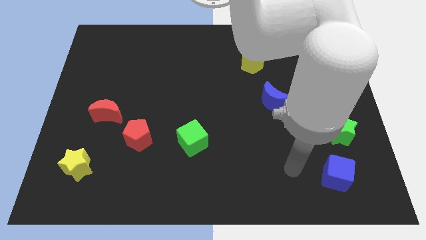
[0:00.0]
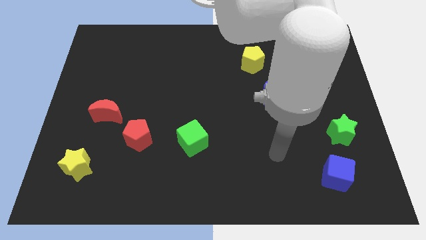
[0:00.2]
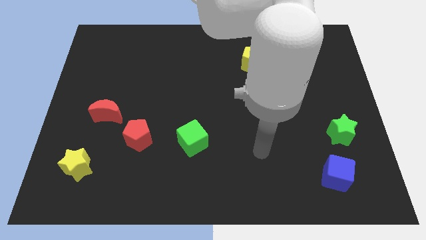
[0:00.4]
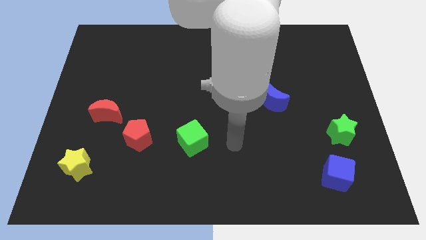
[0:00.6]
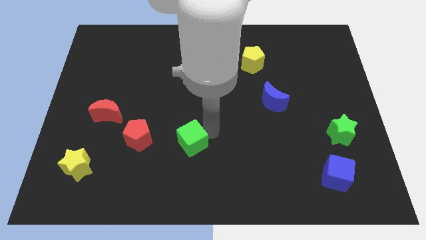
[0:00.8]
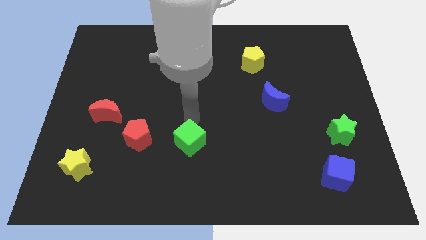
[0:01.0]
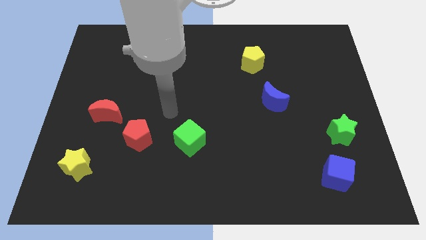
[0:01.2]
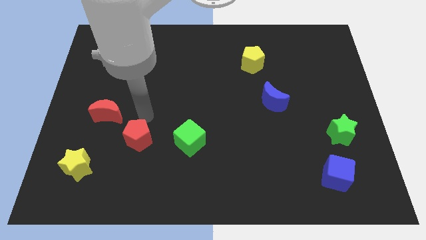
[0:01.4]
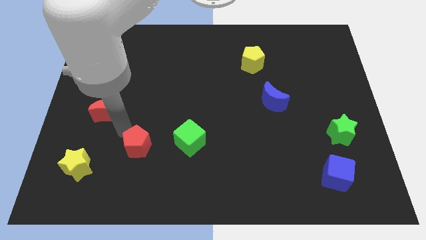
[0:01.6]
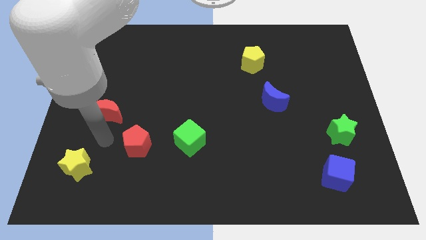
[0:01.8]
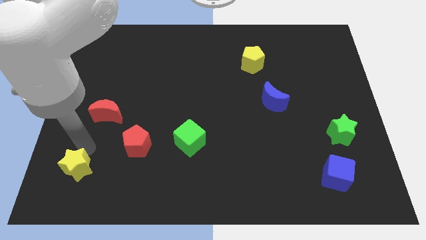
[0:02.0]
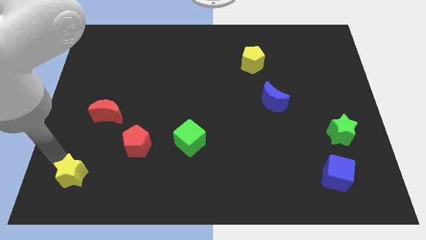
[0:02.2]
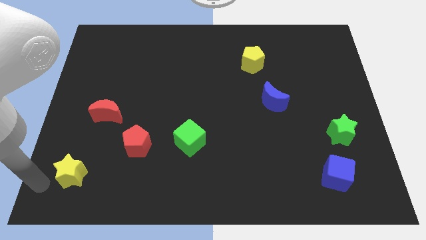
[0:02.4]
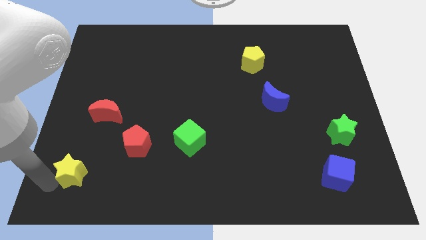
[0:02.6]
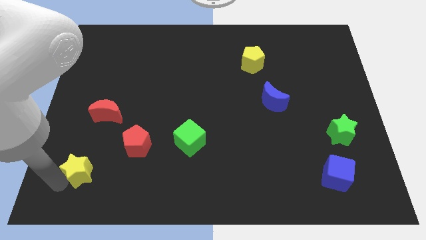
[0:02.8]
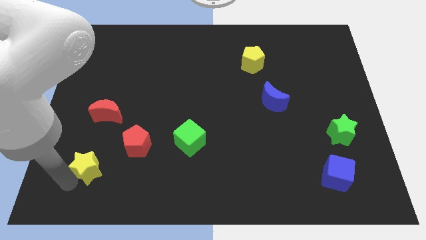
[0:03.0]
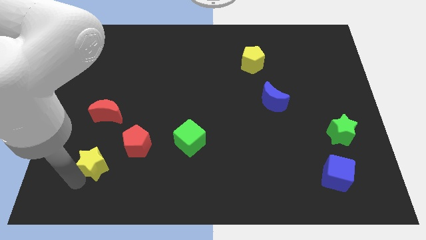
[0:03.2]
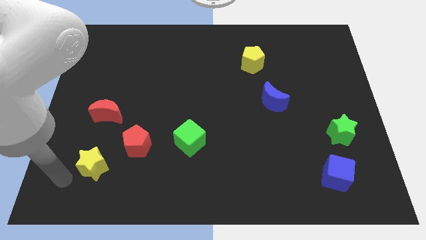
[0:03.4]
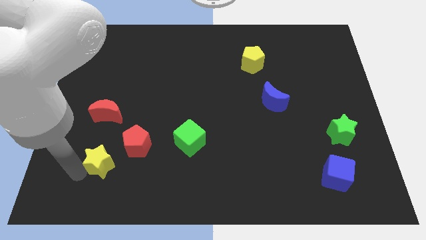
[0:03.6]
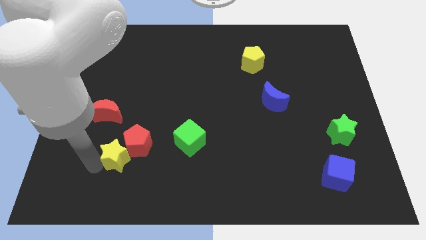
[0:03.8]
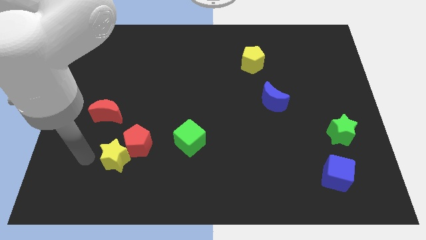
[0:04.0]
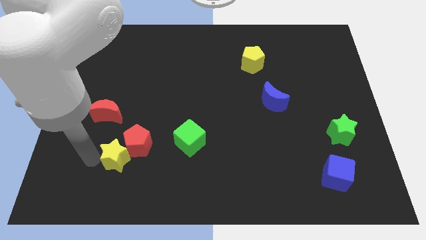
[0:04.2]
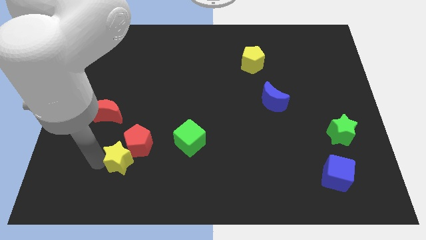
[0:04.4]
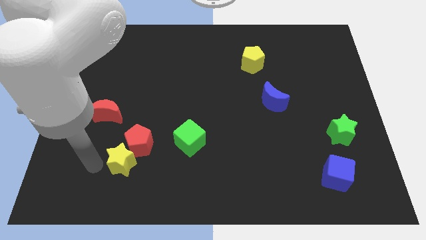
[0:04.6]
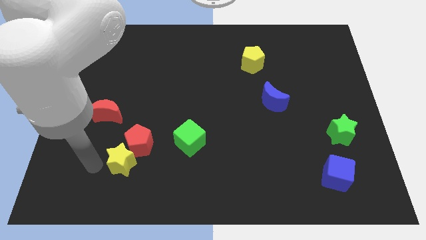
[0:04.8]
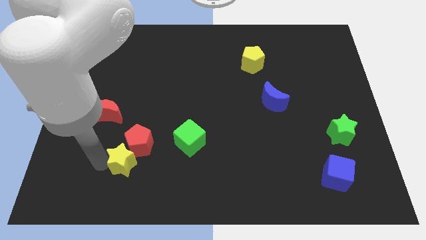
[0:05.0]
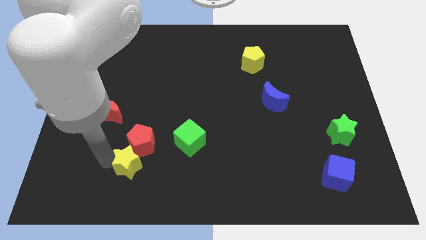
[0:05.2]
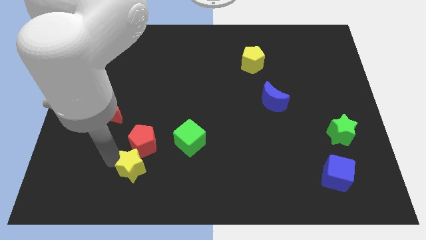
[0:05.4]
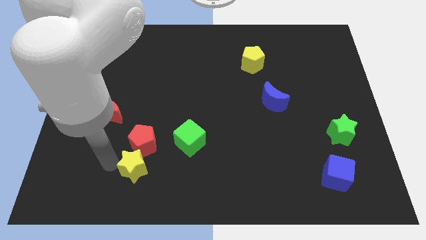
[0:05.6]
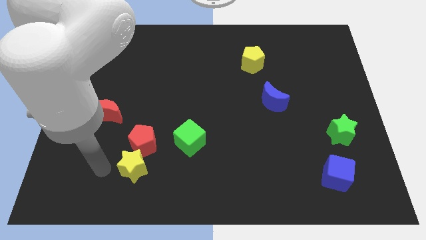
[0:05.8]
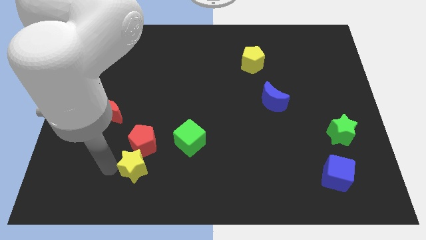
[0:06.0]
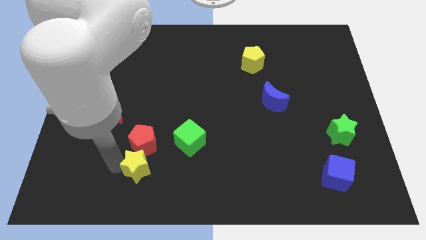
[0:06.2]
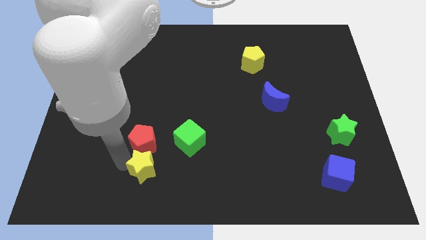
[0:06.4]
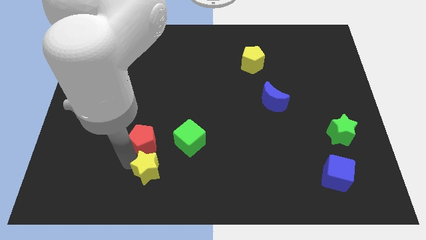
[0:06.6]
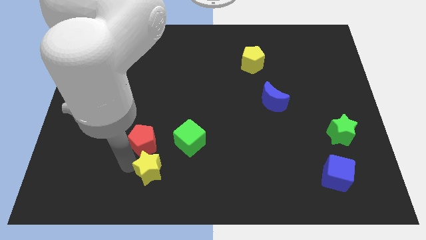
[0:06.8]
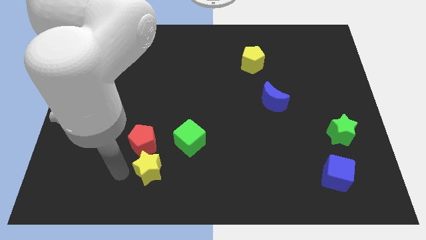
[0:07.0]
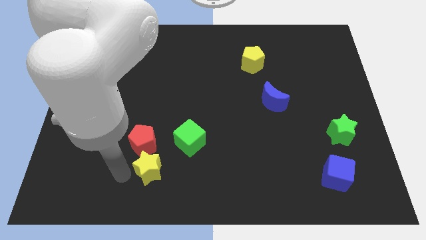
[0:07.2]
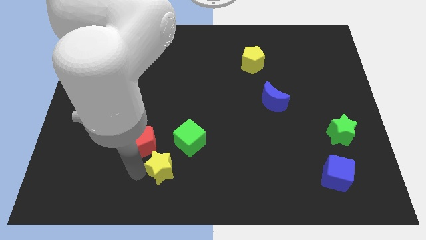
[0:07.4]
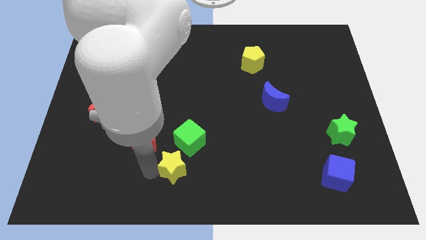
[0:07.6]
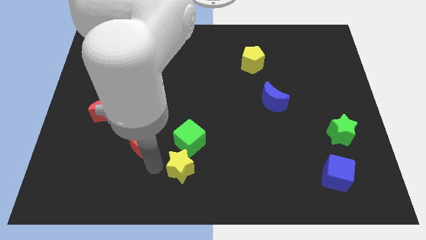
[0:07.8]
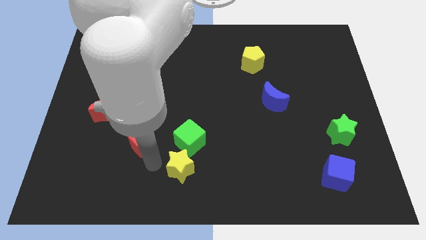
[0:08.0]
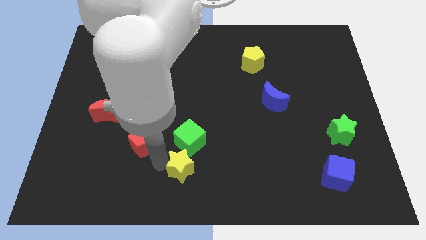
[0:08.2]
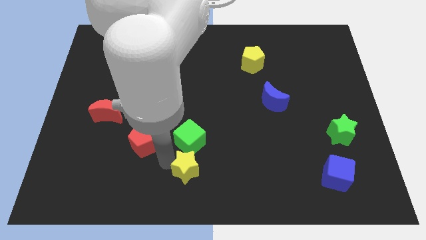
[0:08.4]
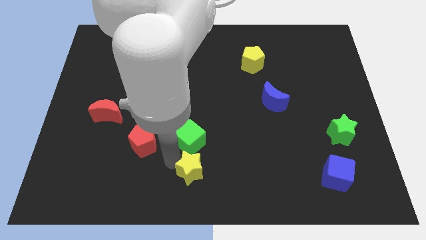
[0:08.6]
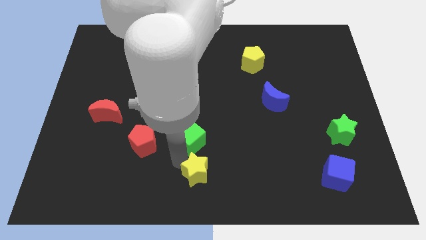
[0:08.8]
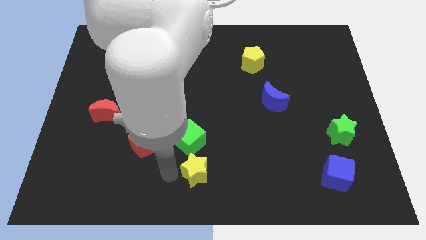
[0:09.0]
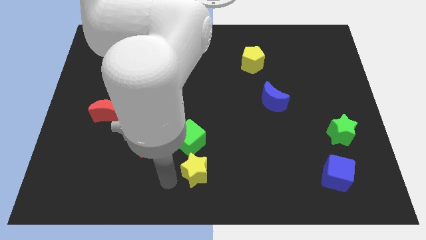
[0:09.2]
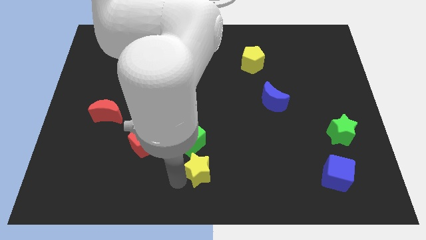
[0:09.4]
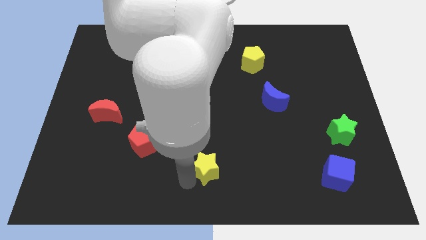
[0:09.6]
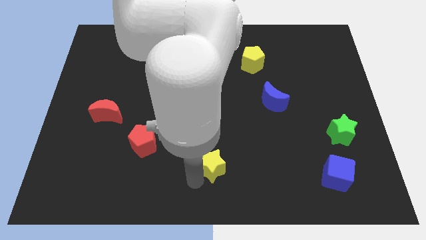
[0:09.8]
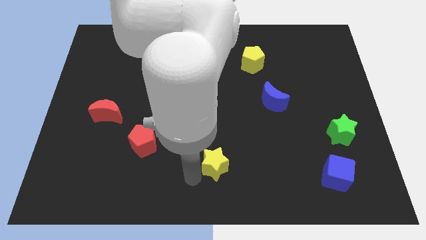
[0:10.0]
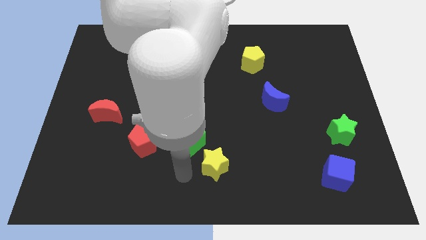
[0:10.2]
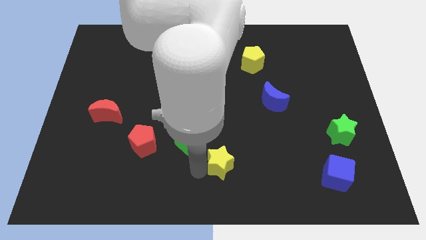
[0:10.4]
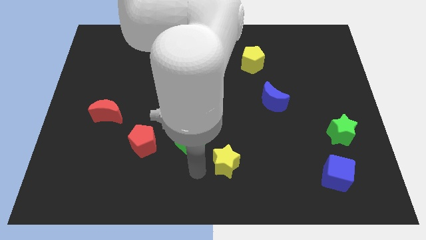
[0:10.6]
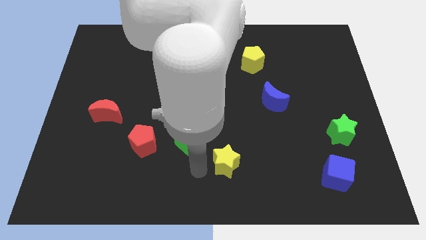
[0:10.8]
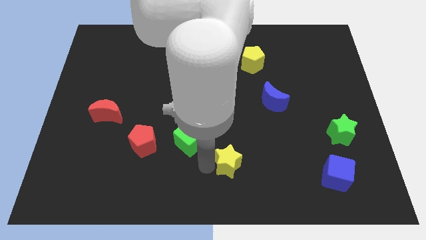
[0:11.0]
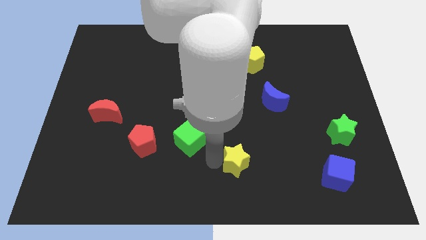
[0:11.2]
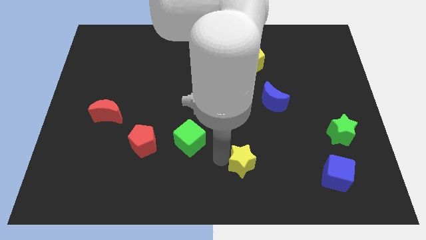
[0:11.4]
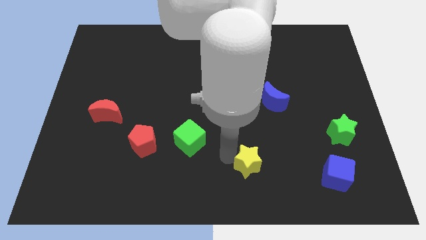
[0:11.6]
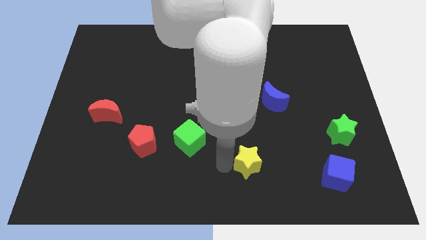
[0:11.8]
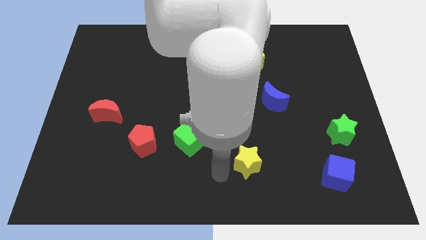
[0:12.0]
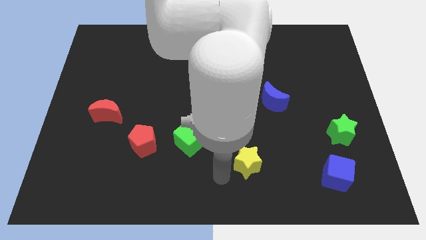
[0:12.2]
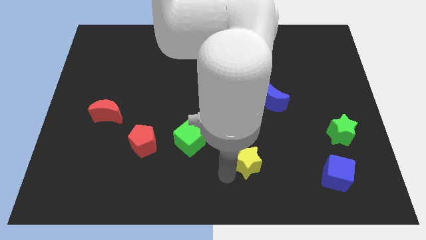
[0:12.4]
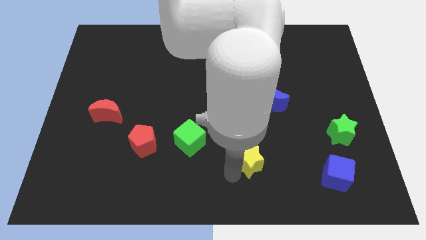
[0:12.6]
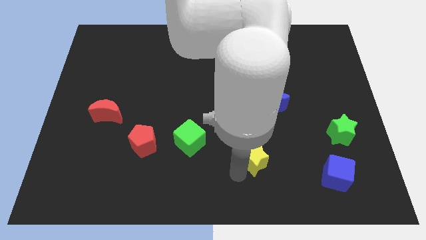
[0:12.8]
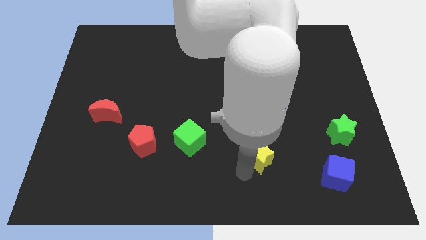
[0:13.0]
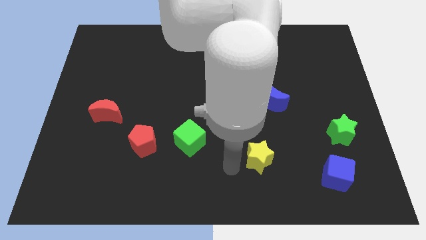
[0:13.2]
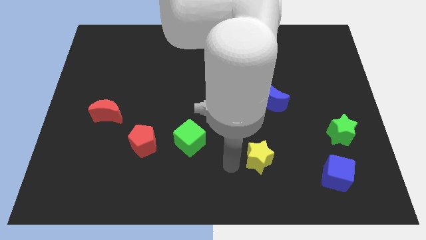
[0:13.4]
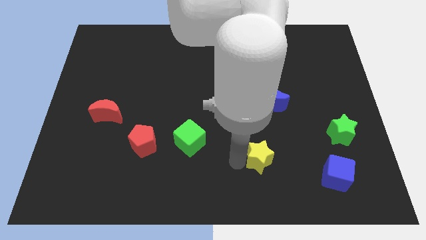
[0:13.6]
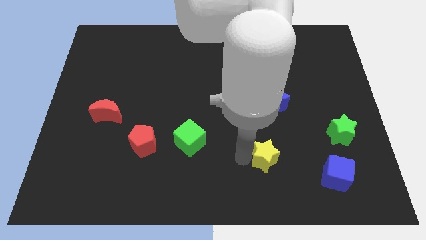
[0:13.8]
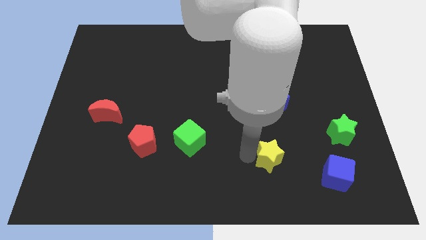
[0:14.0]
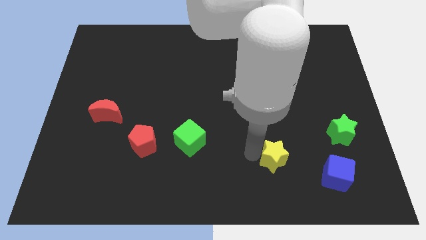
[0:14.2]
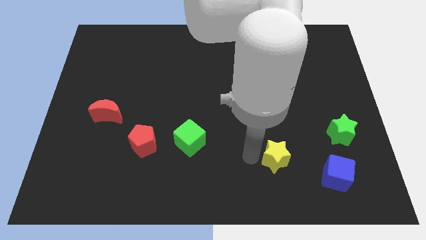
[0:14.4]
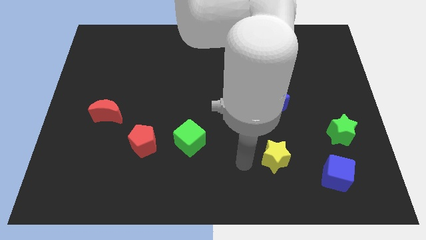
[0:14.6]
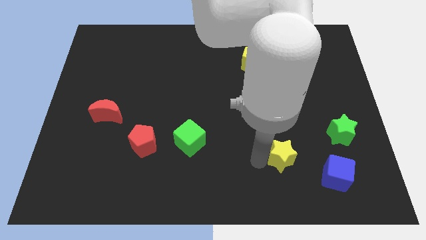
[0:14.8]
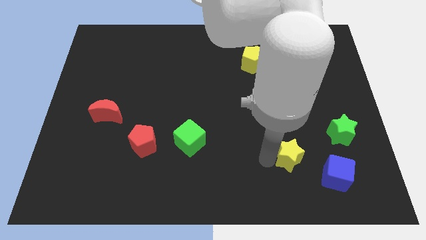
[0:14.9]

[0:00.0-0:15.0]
move the yellow star diagonally up and to the left of the blue cube
